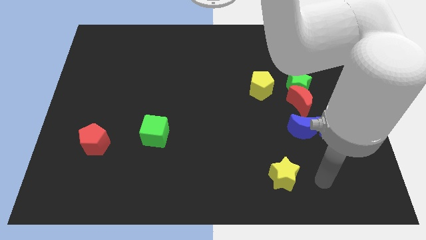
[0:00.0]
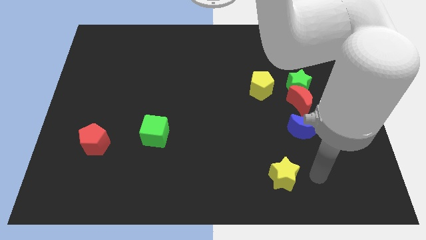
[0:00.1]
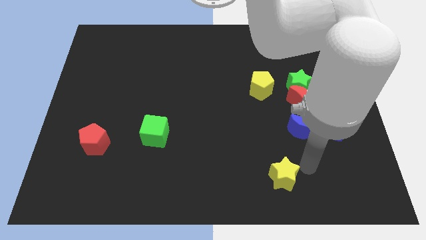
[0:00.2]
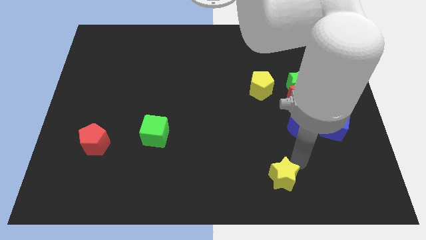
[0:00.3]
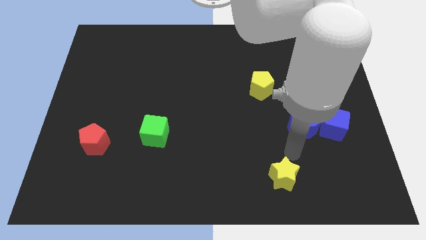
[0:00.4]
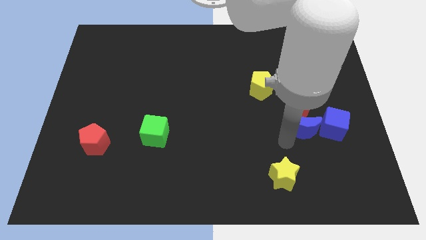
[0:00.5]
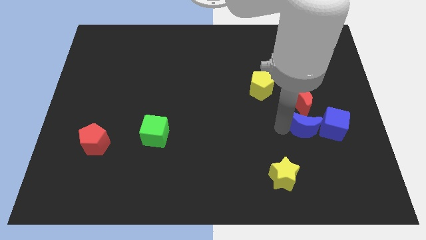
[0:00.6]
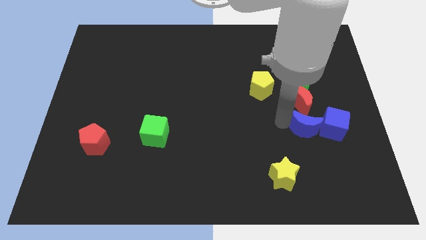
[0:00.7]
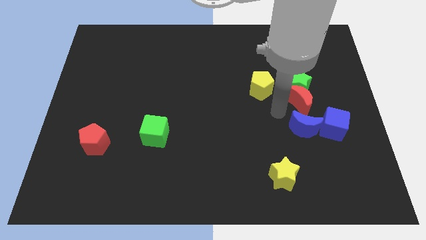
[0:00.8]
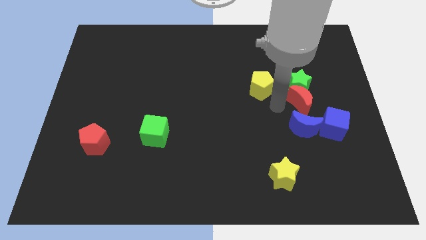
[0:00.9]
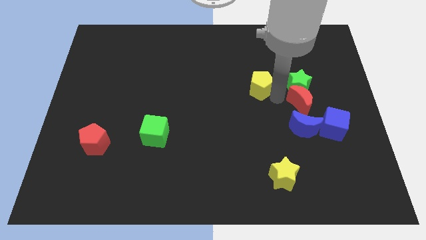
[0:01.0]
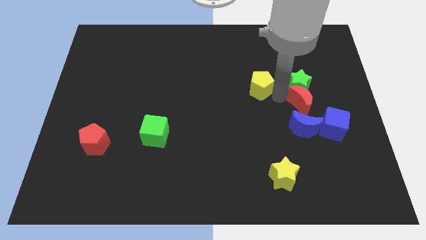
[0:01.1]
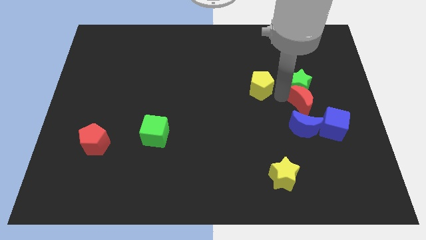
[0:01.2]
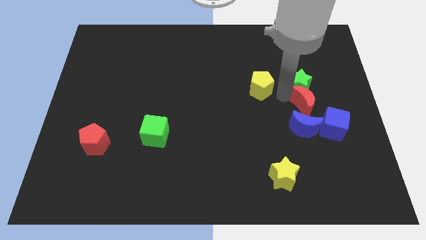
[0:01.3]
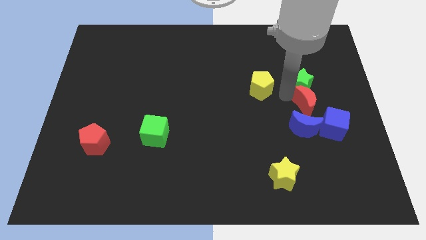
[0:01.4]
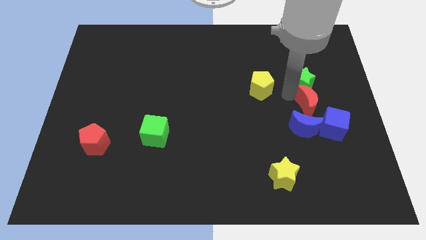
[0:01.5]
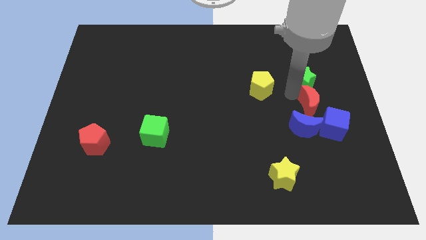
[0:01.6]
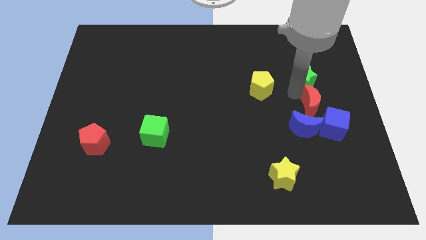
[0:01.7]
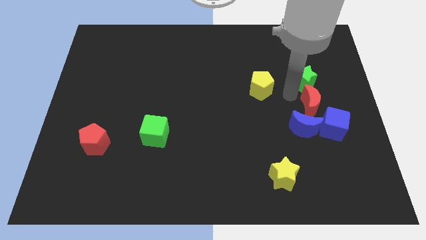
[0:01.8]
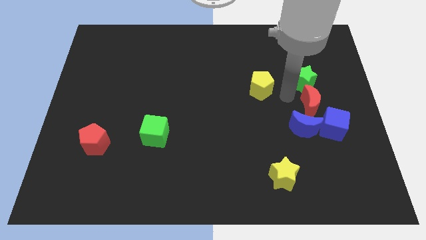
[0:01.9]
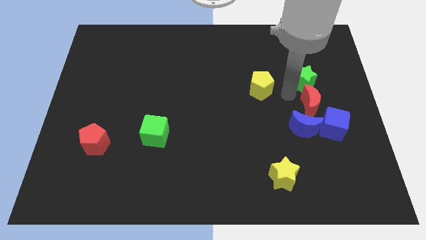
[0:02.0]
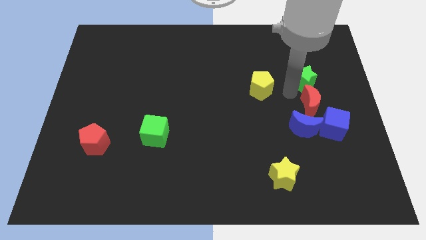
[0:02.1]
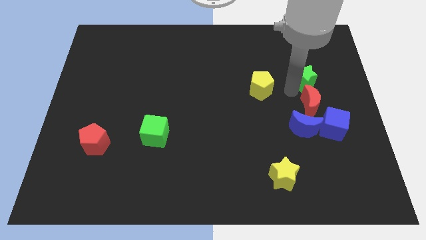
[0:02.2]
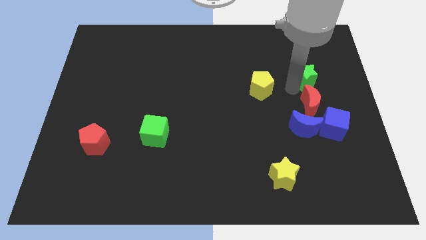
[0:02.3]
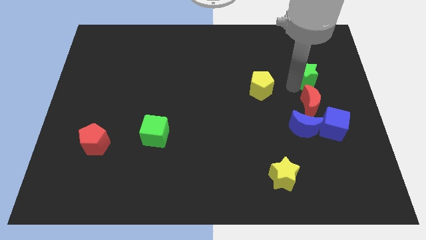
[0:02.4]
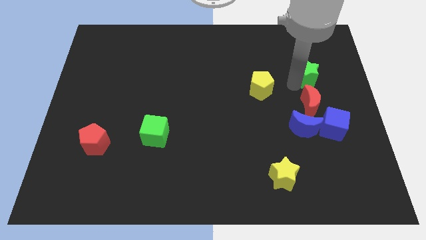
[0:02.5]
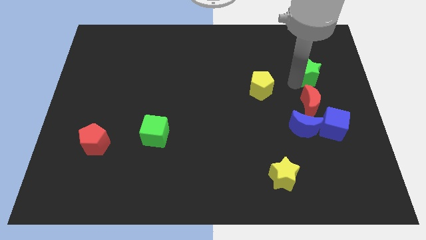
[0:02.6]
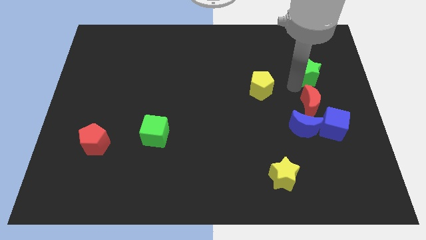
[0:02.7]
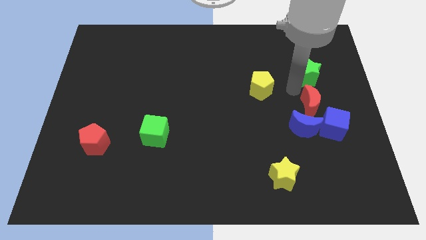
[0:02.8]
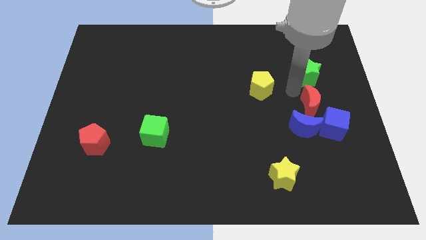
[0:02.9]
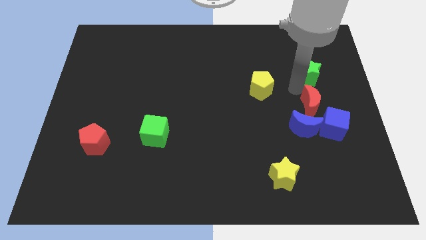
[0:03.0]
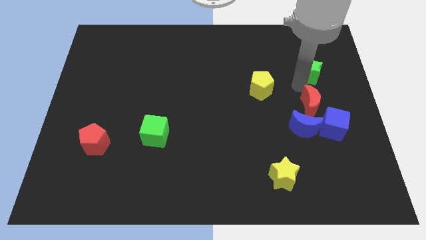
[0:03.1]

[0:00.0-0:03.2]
separate the green star from the red moon and yellow pentagon

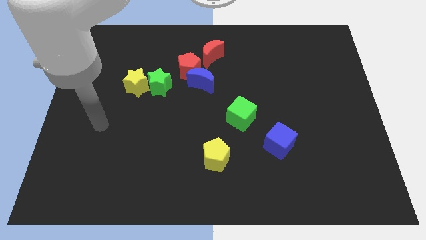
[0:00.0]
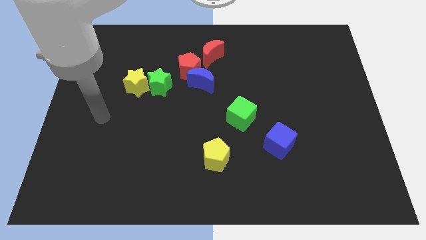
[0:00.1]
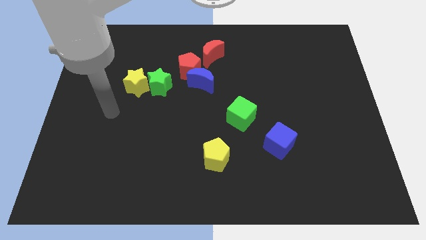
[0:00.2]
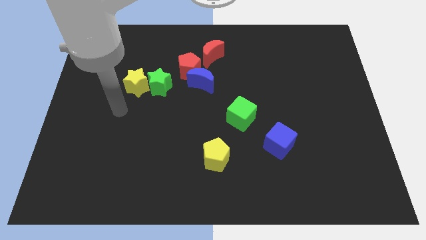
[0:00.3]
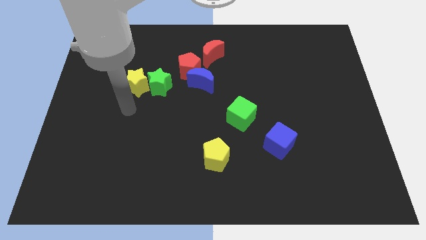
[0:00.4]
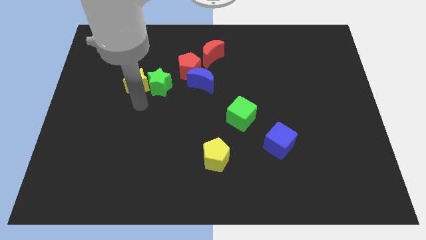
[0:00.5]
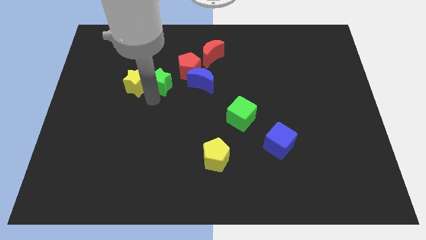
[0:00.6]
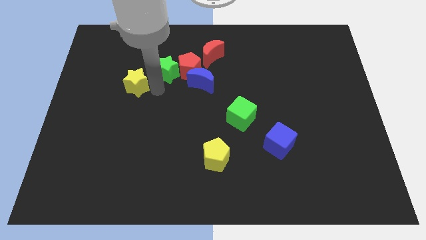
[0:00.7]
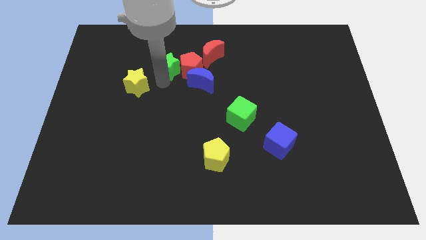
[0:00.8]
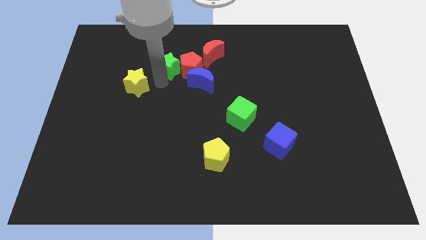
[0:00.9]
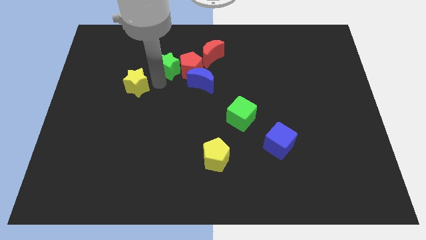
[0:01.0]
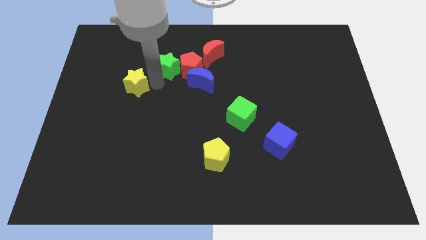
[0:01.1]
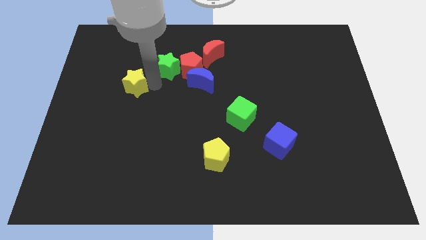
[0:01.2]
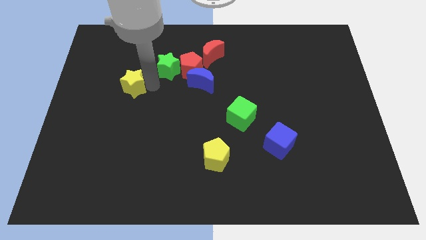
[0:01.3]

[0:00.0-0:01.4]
pull the yellow star apart from the green star

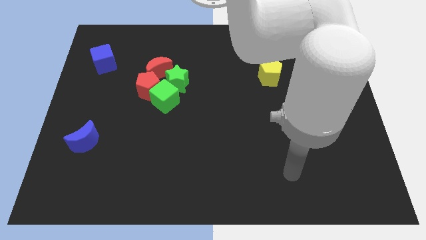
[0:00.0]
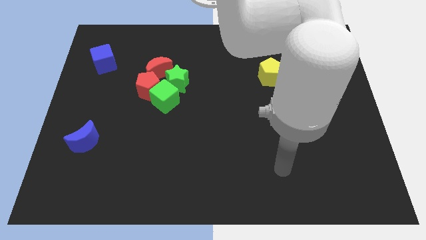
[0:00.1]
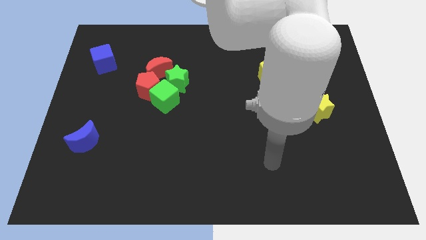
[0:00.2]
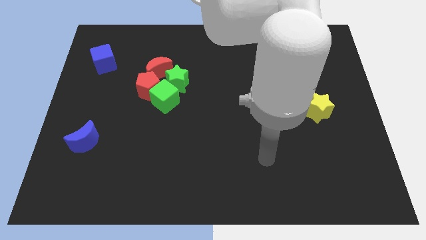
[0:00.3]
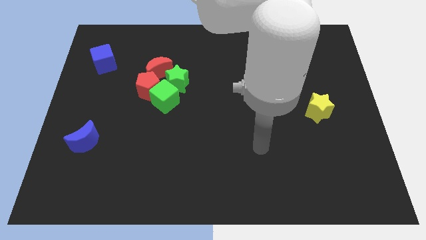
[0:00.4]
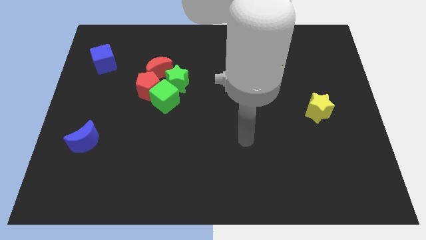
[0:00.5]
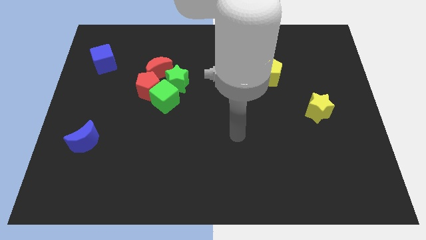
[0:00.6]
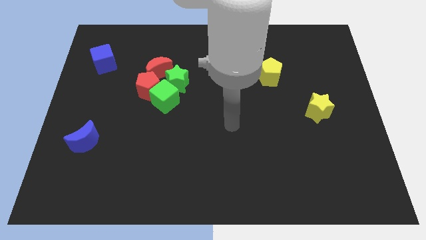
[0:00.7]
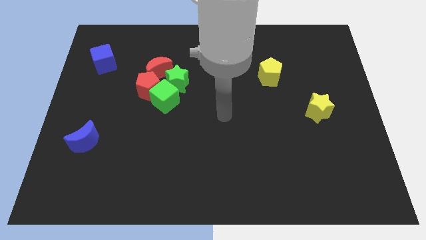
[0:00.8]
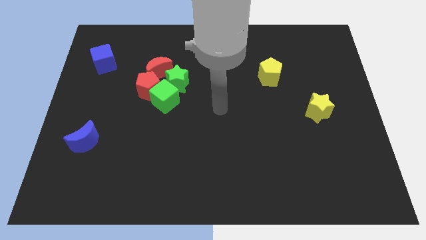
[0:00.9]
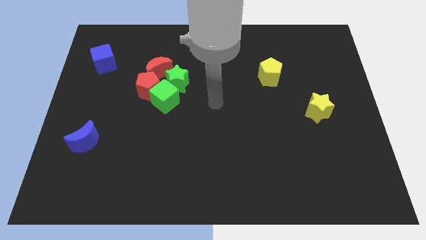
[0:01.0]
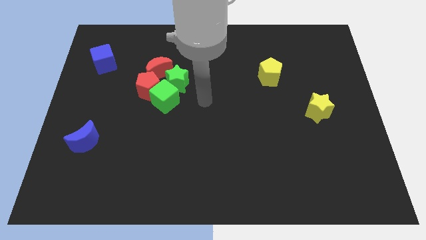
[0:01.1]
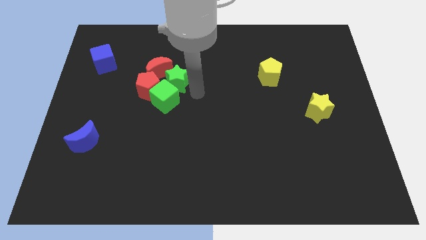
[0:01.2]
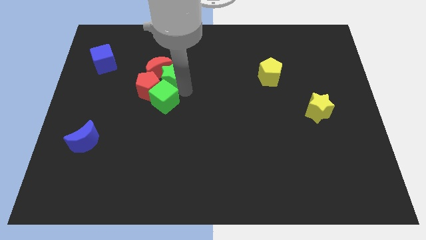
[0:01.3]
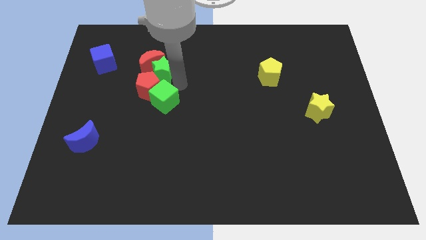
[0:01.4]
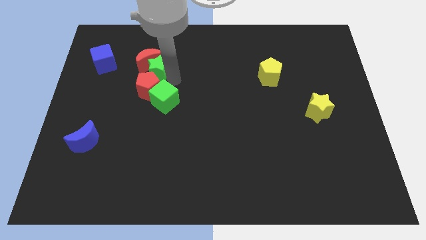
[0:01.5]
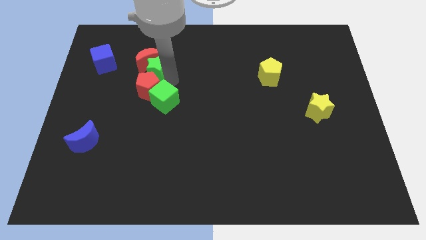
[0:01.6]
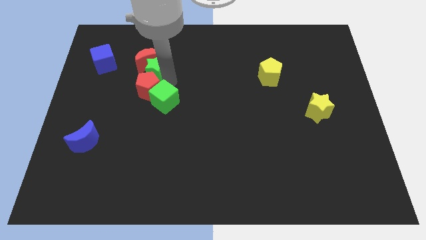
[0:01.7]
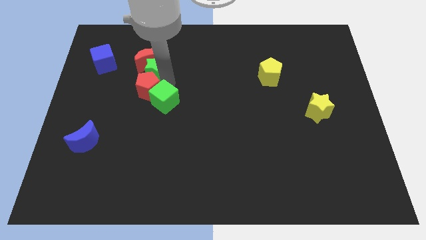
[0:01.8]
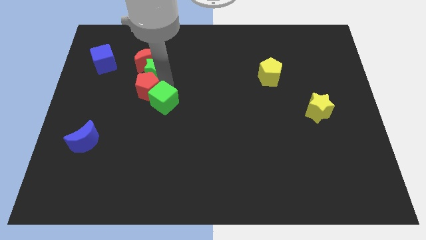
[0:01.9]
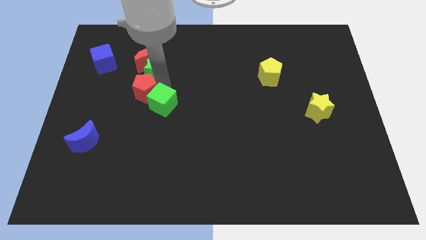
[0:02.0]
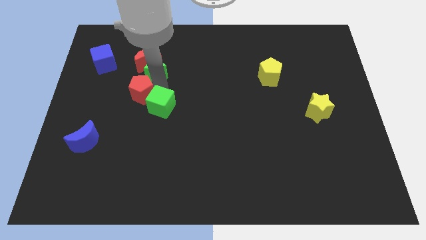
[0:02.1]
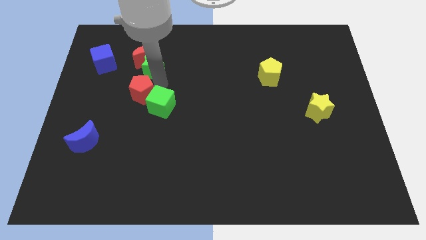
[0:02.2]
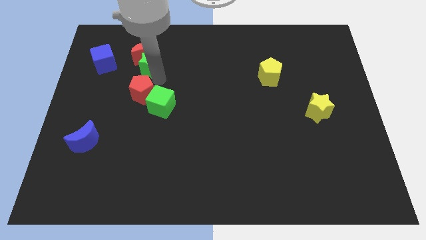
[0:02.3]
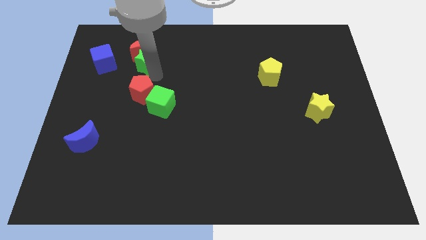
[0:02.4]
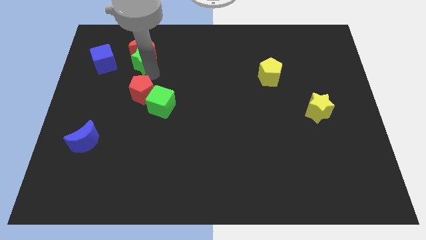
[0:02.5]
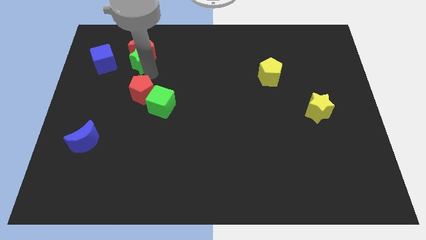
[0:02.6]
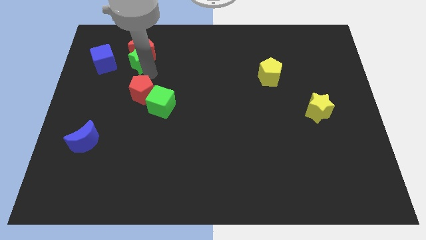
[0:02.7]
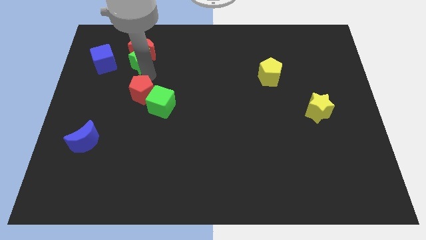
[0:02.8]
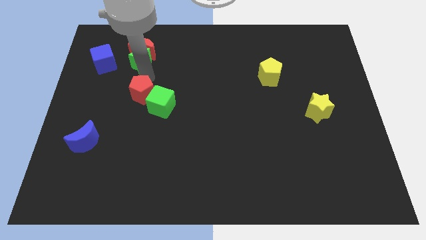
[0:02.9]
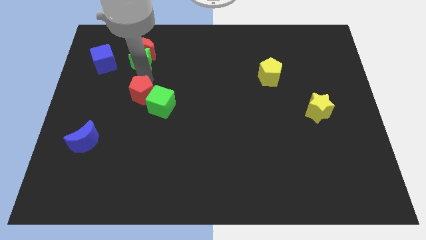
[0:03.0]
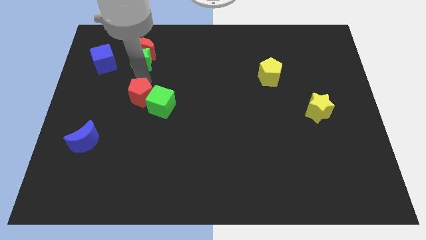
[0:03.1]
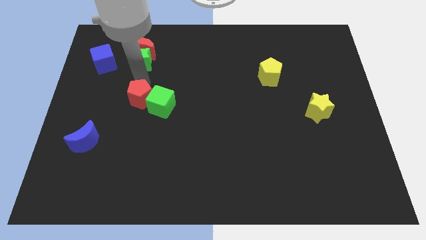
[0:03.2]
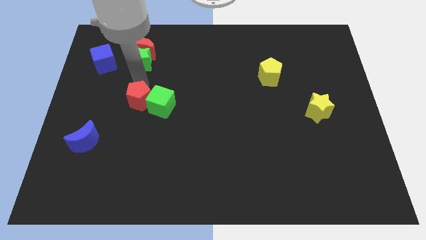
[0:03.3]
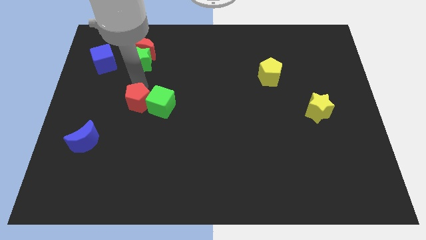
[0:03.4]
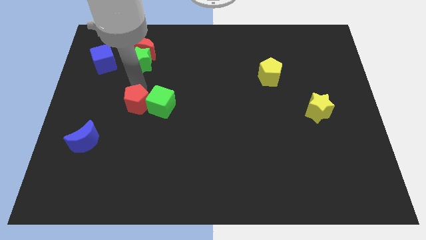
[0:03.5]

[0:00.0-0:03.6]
separate the red pentagon from the green cube, red moon, and green star

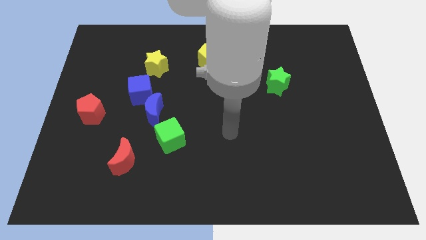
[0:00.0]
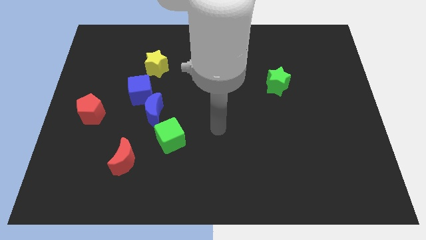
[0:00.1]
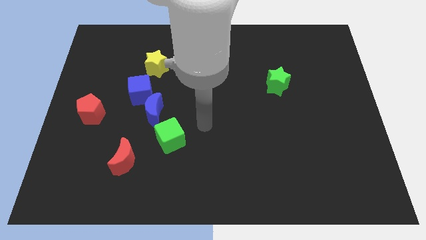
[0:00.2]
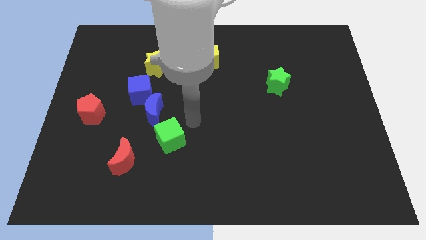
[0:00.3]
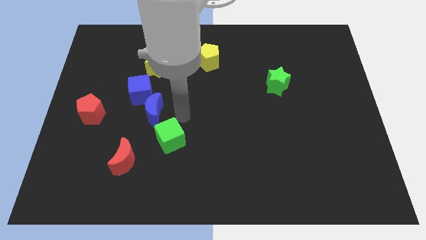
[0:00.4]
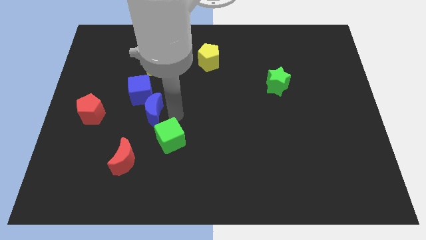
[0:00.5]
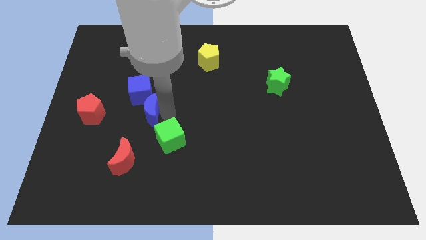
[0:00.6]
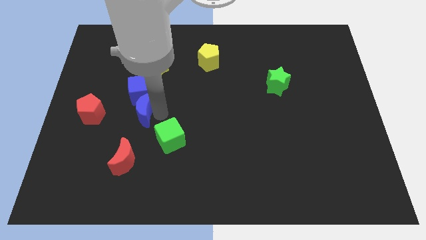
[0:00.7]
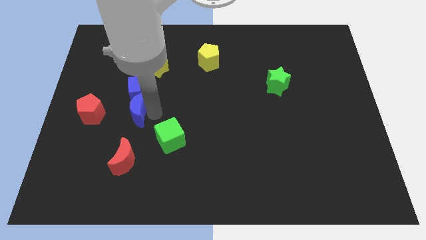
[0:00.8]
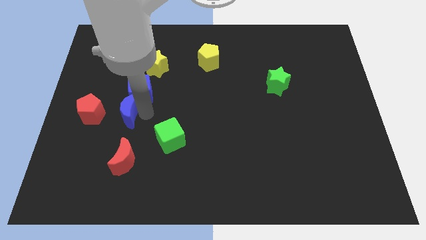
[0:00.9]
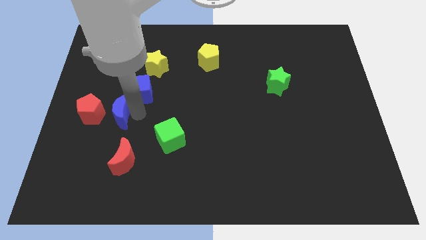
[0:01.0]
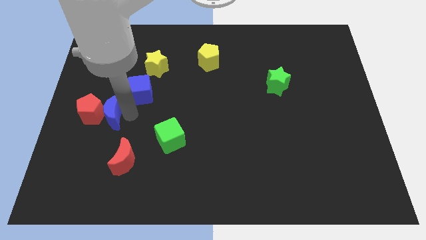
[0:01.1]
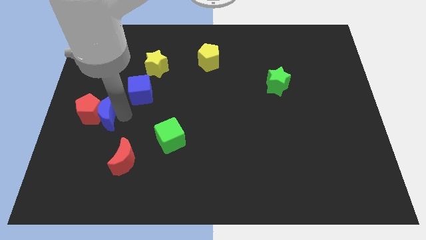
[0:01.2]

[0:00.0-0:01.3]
move the blue moon away from the blue cube and green cube
